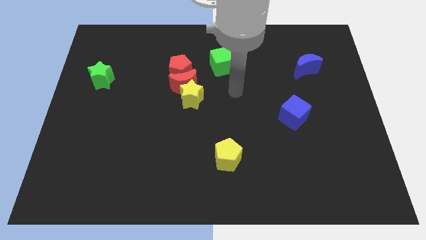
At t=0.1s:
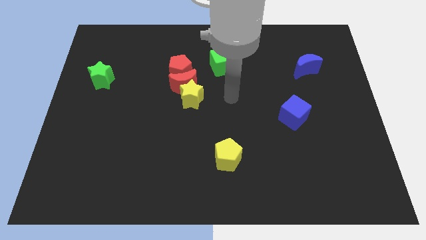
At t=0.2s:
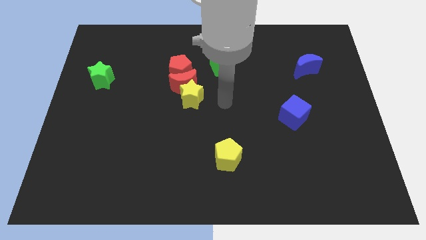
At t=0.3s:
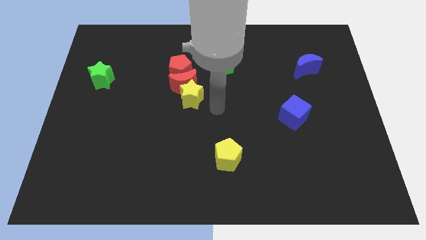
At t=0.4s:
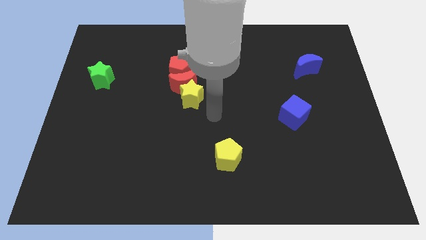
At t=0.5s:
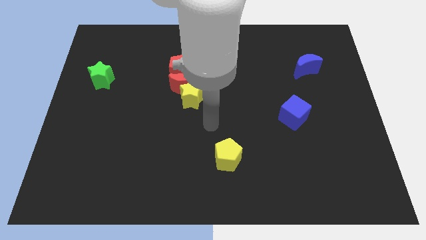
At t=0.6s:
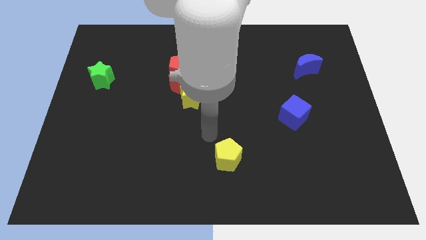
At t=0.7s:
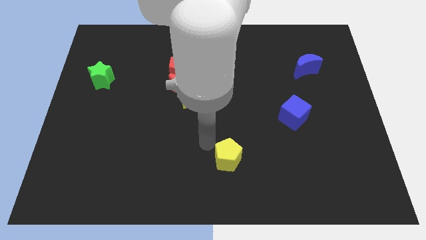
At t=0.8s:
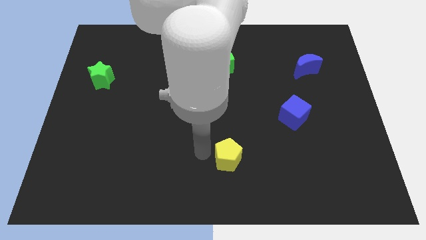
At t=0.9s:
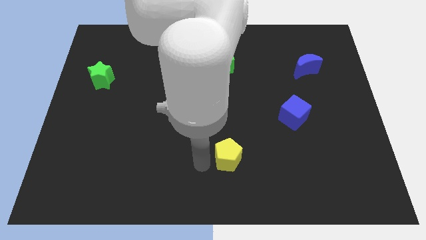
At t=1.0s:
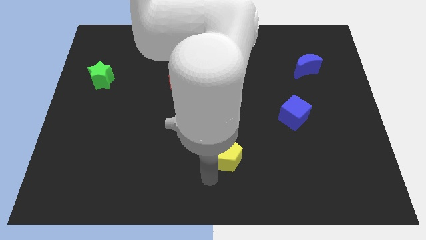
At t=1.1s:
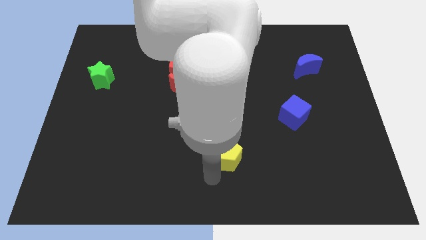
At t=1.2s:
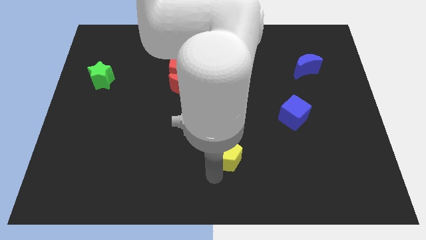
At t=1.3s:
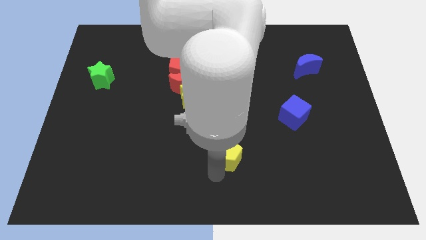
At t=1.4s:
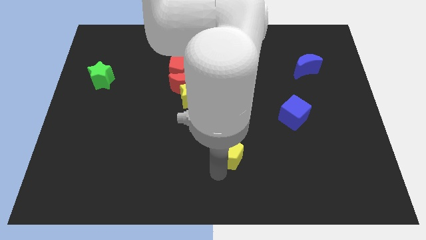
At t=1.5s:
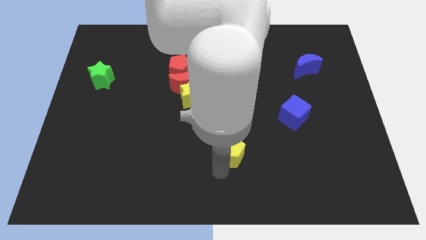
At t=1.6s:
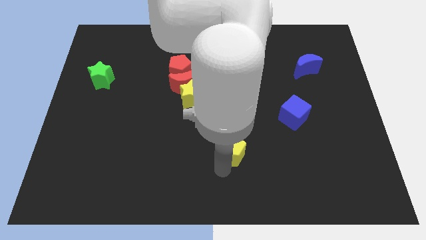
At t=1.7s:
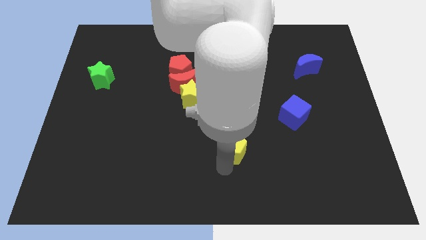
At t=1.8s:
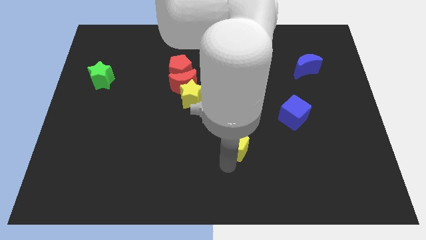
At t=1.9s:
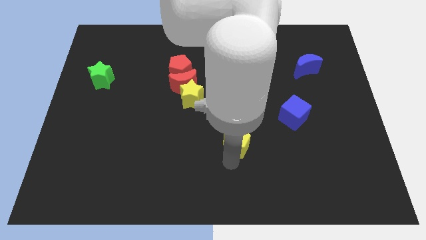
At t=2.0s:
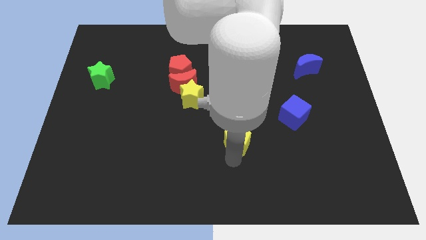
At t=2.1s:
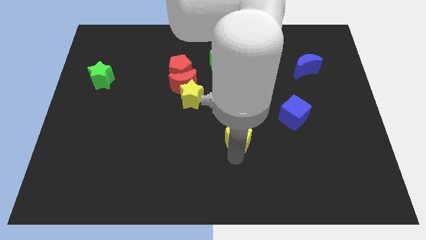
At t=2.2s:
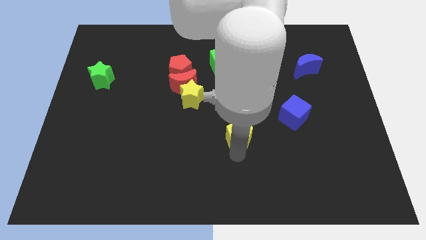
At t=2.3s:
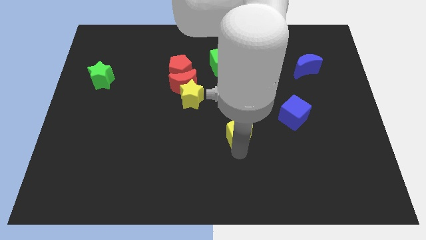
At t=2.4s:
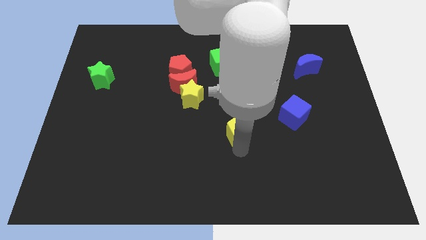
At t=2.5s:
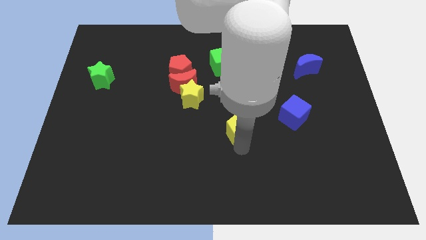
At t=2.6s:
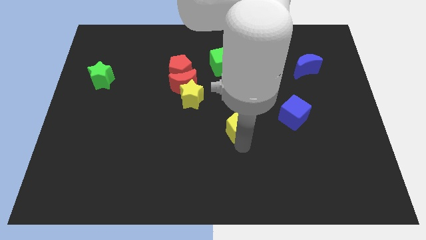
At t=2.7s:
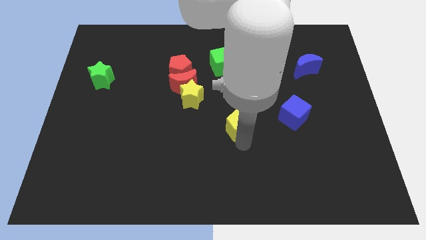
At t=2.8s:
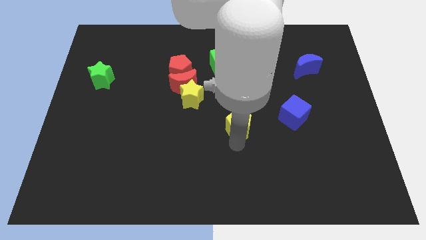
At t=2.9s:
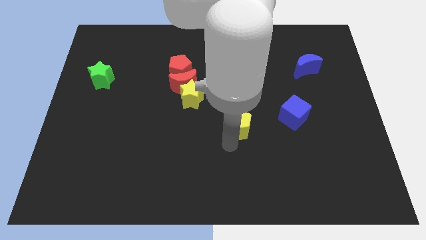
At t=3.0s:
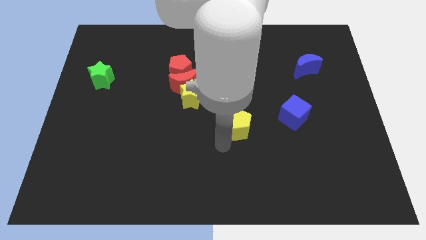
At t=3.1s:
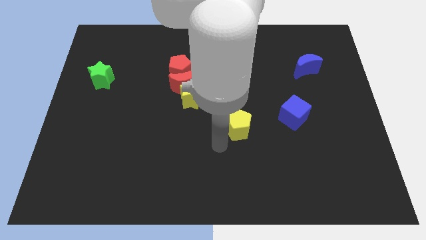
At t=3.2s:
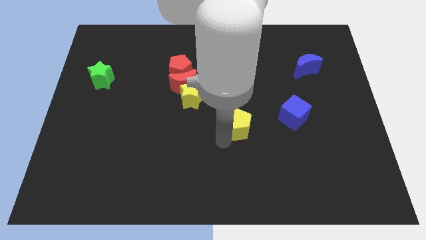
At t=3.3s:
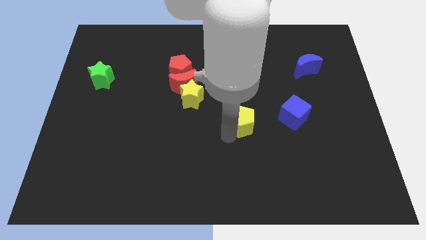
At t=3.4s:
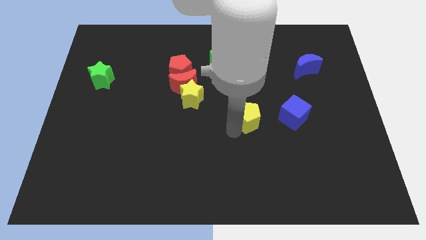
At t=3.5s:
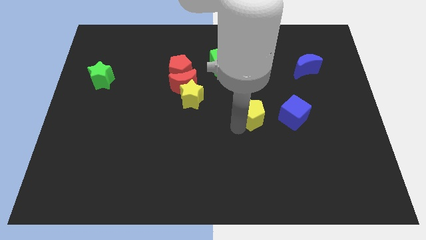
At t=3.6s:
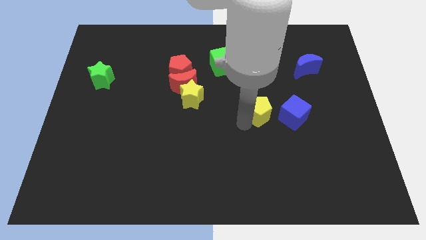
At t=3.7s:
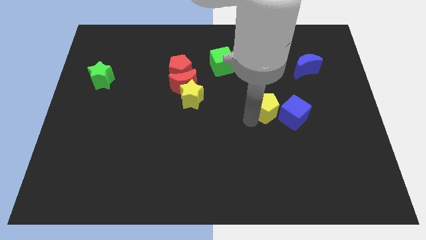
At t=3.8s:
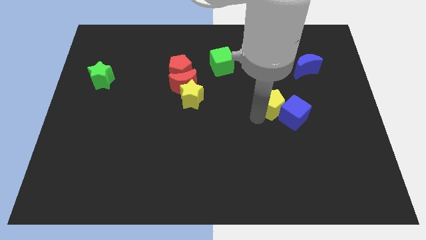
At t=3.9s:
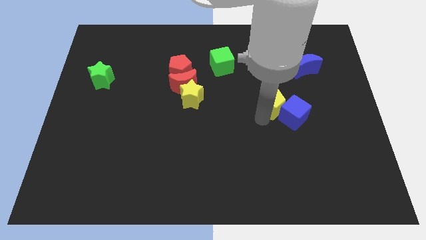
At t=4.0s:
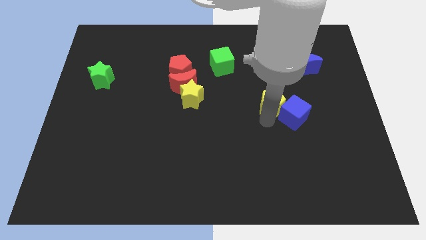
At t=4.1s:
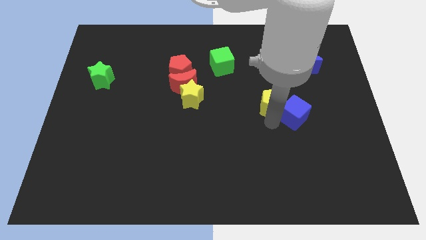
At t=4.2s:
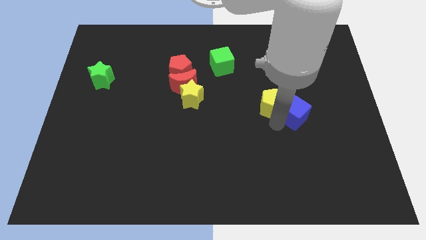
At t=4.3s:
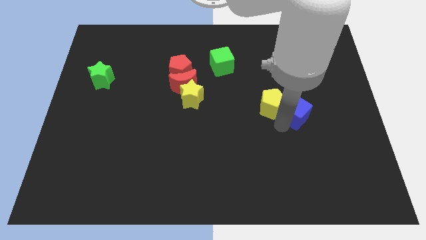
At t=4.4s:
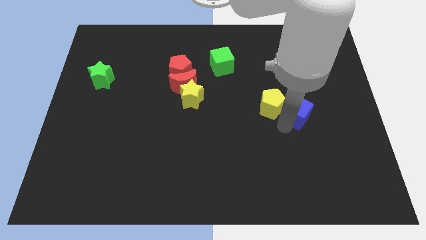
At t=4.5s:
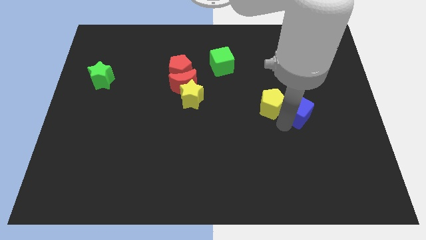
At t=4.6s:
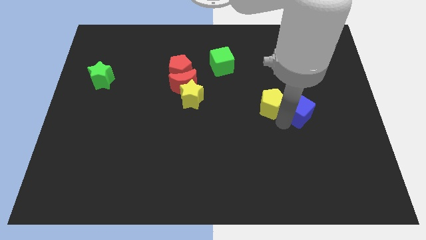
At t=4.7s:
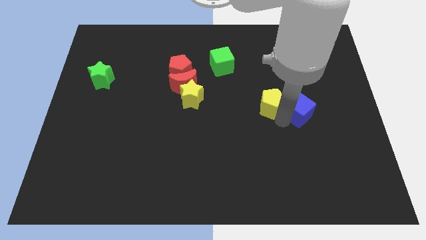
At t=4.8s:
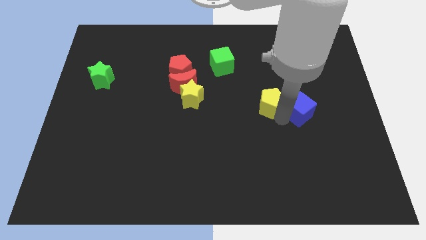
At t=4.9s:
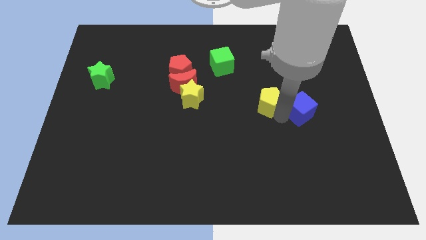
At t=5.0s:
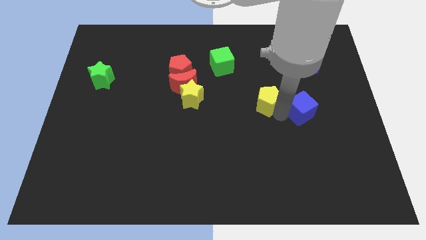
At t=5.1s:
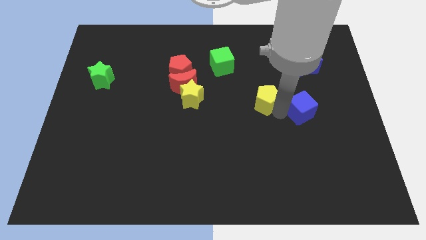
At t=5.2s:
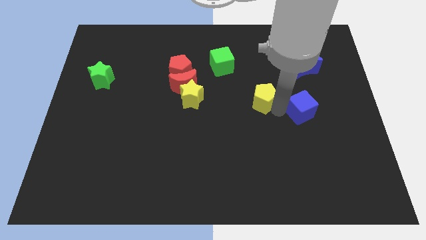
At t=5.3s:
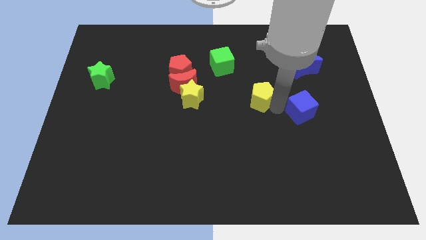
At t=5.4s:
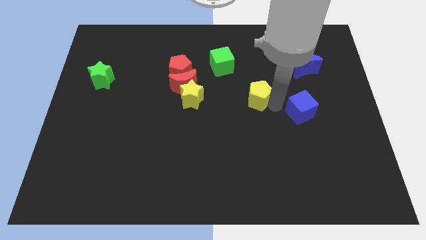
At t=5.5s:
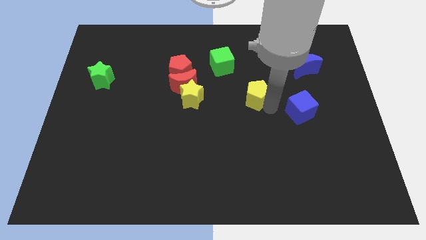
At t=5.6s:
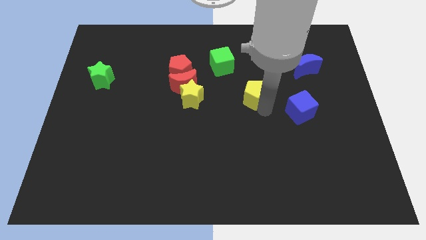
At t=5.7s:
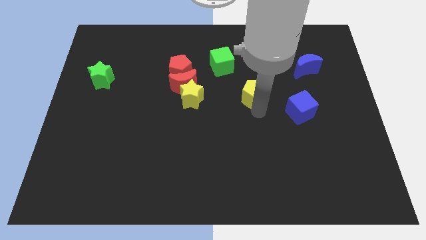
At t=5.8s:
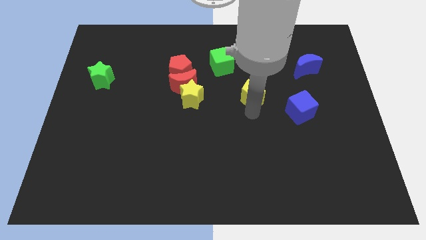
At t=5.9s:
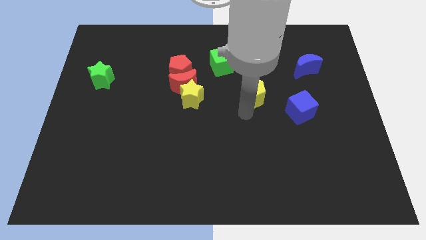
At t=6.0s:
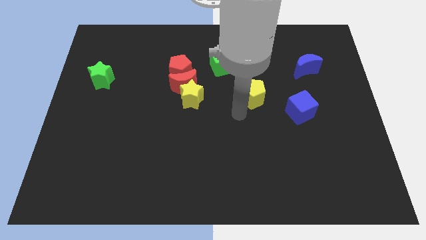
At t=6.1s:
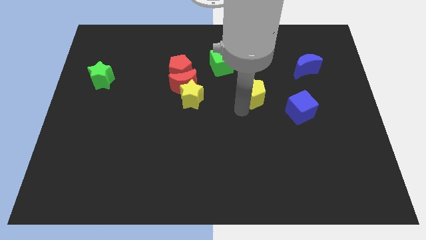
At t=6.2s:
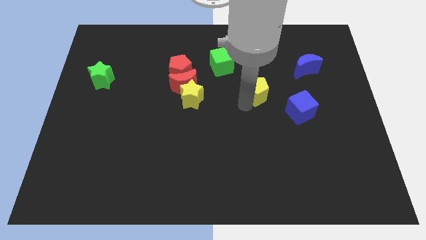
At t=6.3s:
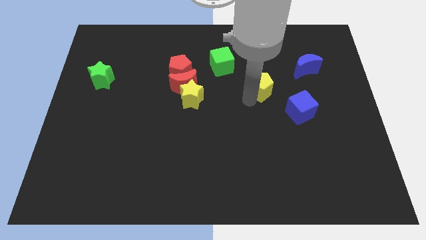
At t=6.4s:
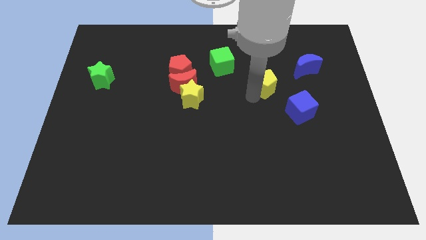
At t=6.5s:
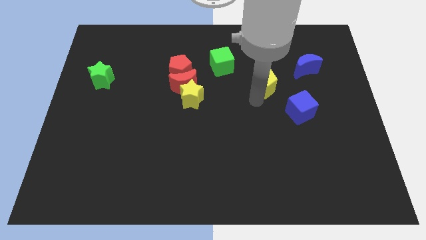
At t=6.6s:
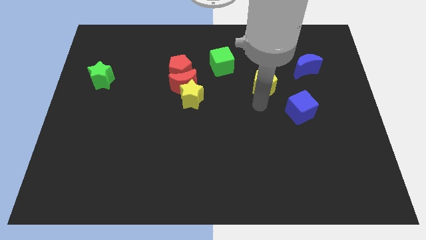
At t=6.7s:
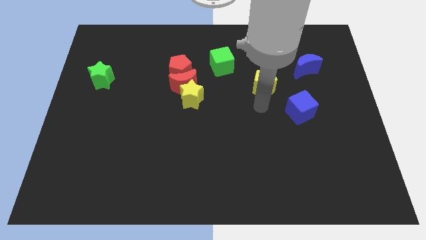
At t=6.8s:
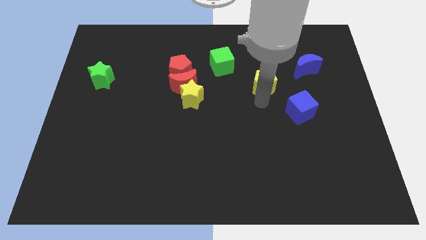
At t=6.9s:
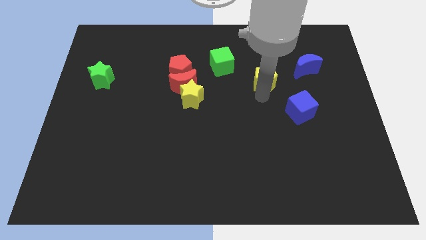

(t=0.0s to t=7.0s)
put the yellow pentagon left of the blue moon
